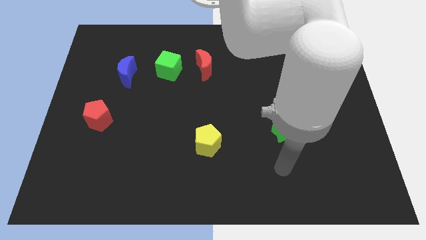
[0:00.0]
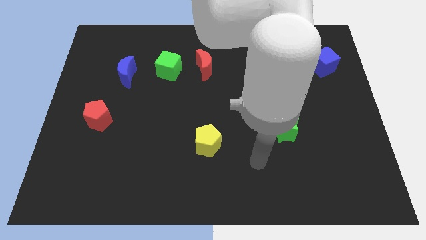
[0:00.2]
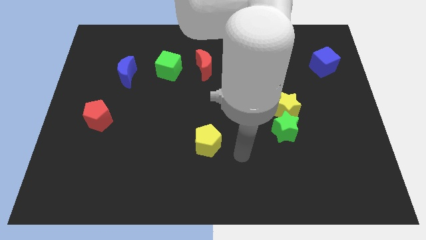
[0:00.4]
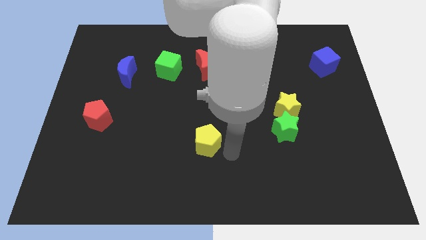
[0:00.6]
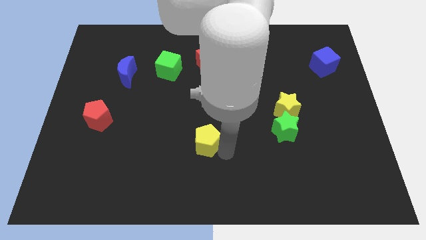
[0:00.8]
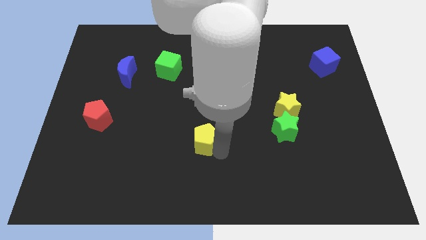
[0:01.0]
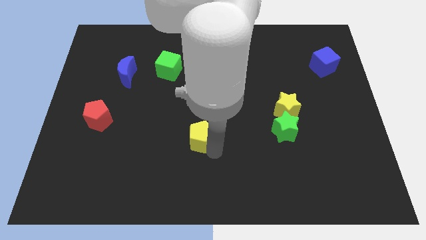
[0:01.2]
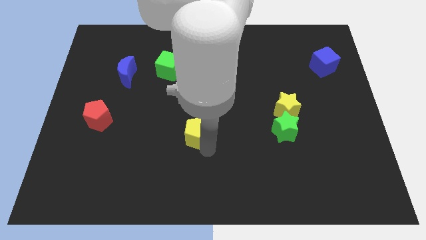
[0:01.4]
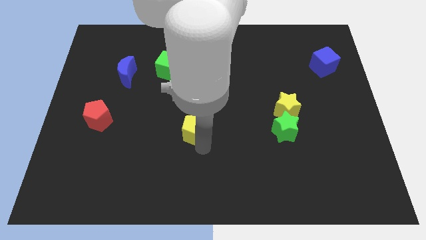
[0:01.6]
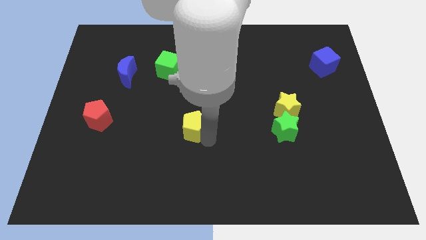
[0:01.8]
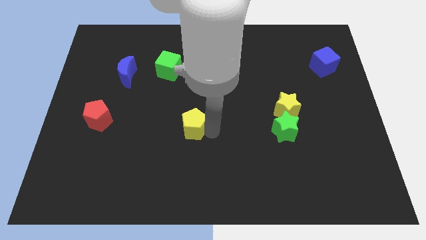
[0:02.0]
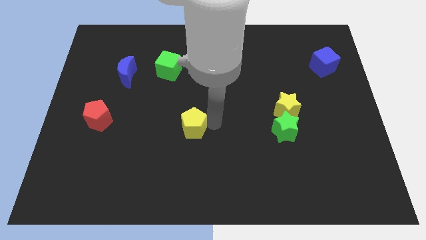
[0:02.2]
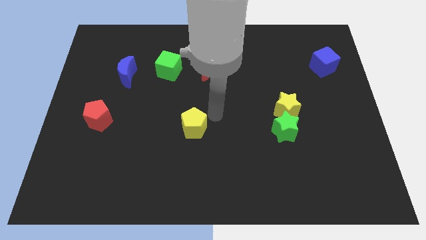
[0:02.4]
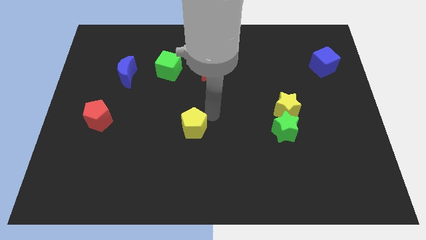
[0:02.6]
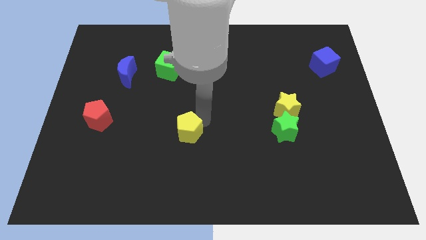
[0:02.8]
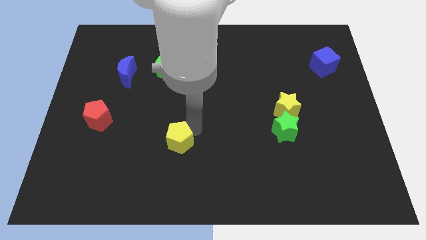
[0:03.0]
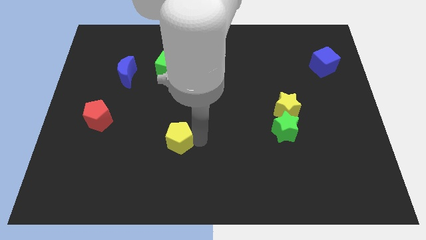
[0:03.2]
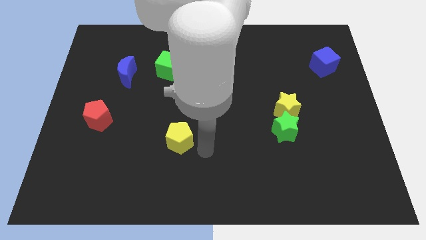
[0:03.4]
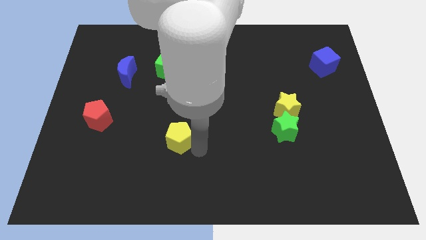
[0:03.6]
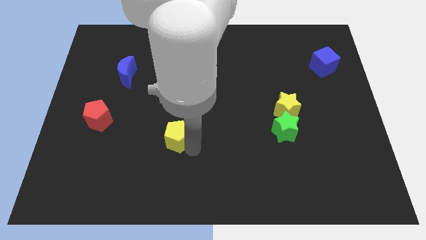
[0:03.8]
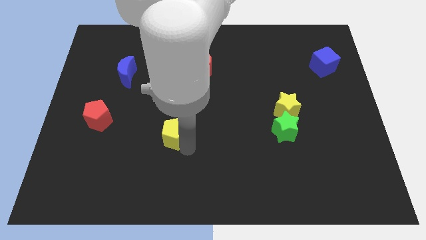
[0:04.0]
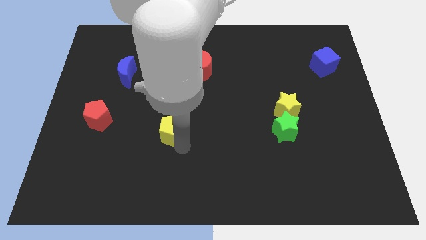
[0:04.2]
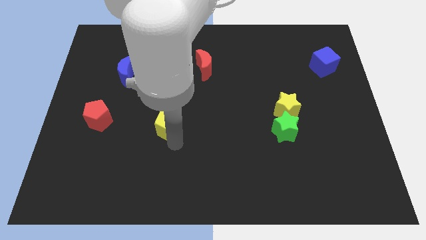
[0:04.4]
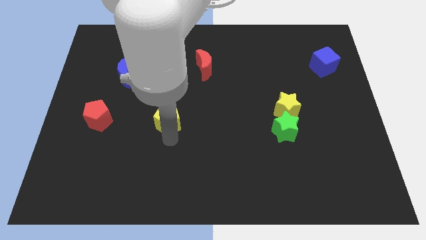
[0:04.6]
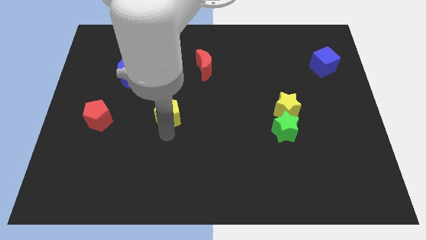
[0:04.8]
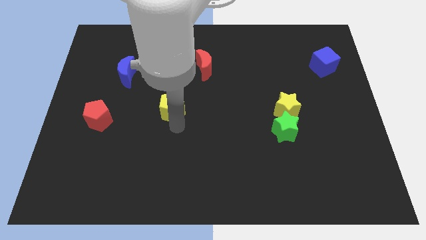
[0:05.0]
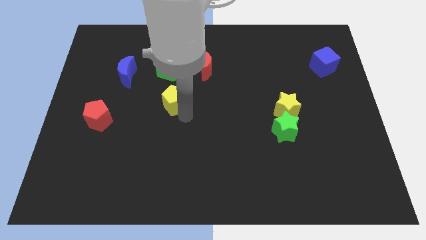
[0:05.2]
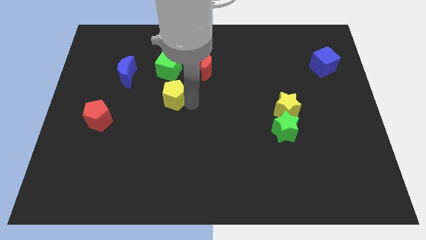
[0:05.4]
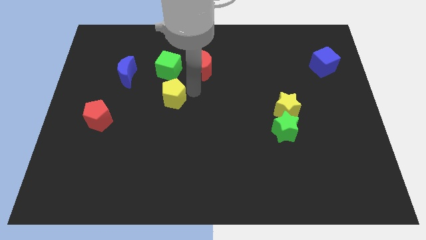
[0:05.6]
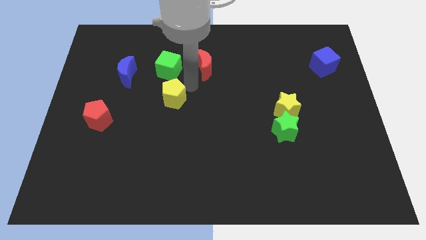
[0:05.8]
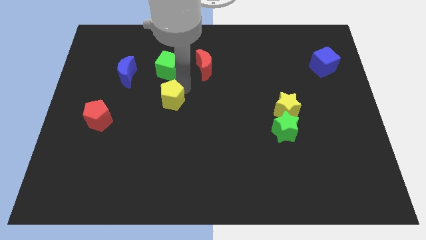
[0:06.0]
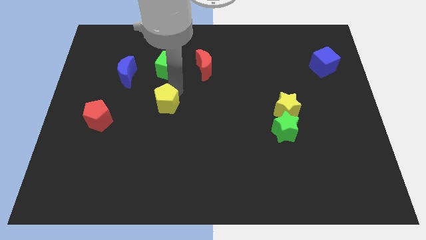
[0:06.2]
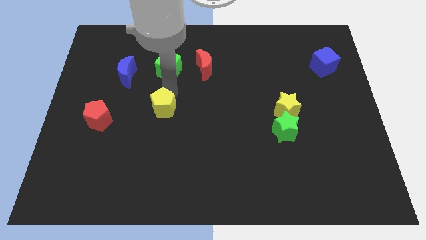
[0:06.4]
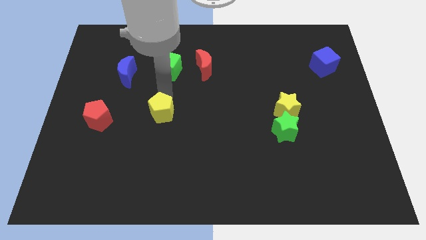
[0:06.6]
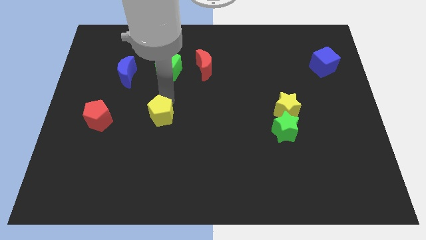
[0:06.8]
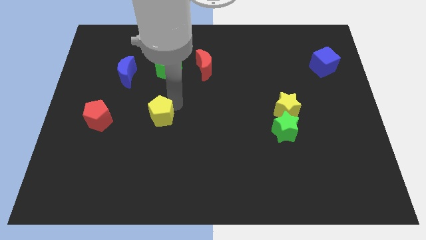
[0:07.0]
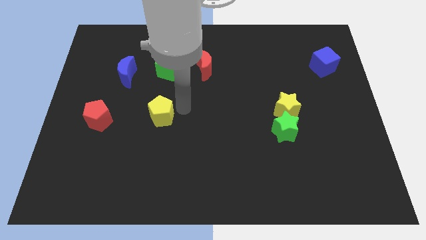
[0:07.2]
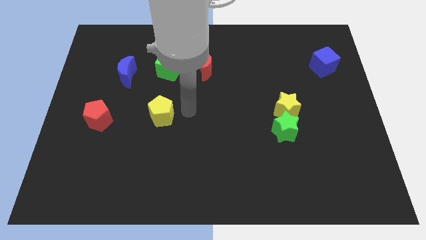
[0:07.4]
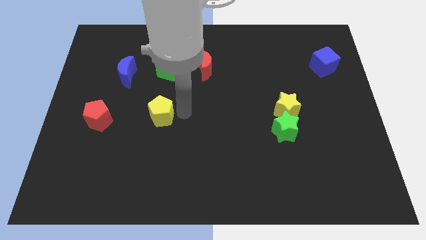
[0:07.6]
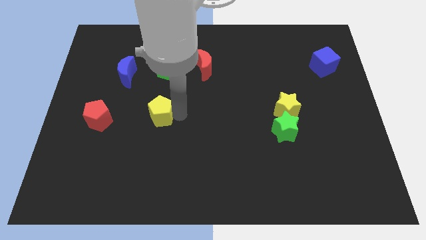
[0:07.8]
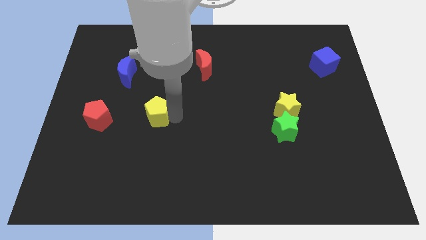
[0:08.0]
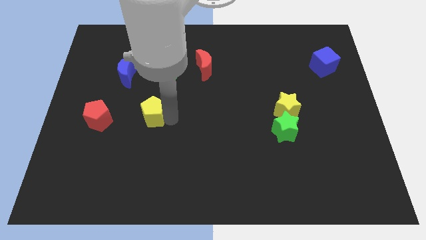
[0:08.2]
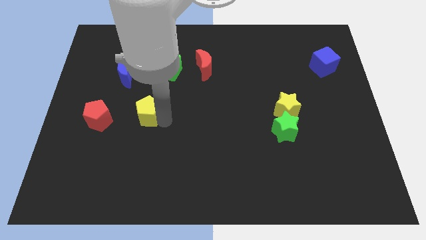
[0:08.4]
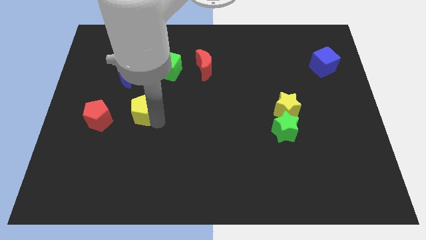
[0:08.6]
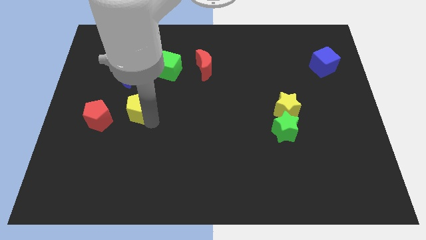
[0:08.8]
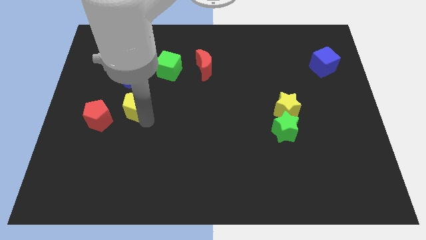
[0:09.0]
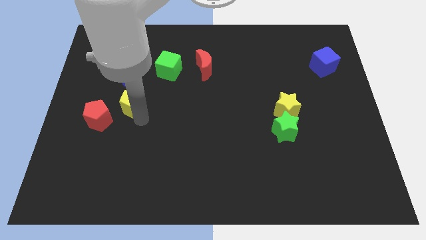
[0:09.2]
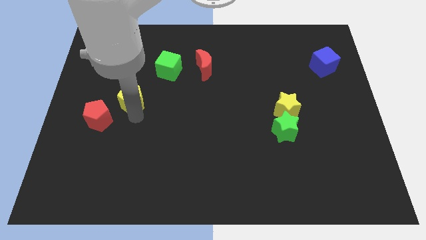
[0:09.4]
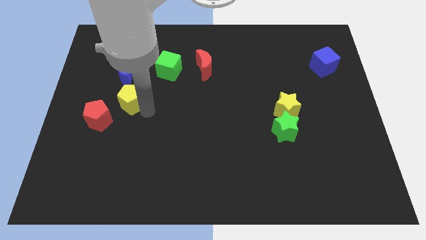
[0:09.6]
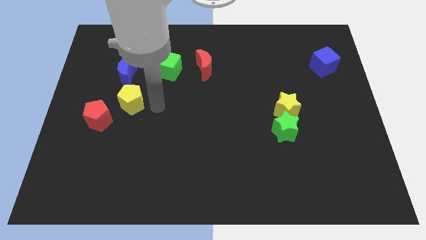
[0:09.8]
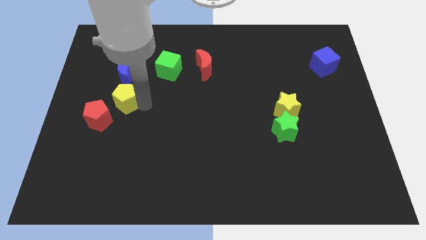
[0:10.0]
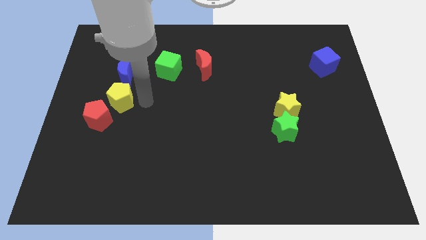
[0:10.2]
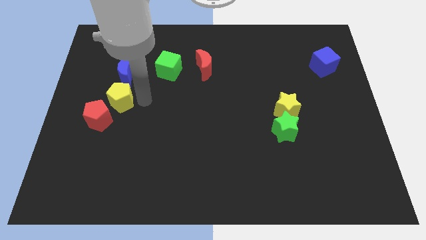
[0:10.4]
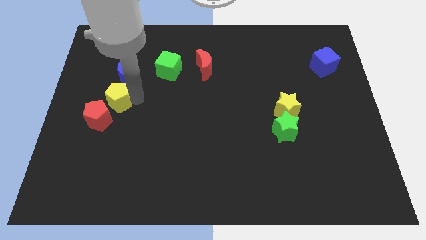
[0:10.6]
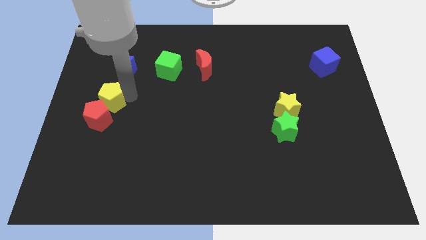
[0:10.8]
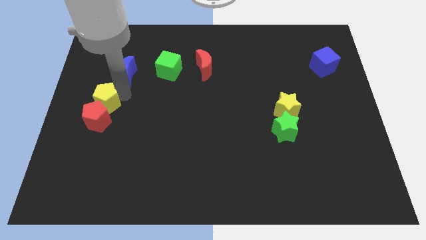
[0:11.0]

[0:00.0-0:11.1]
slide the yellow pentagon to the left side
